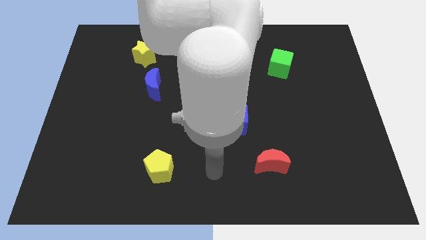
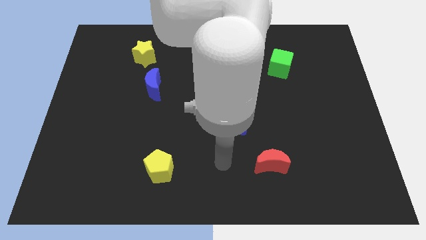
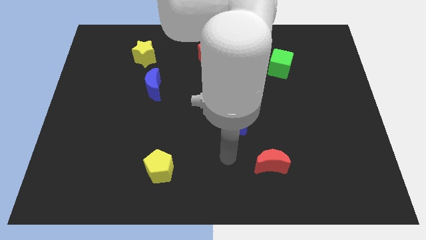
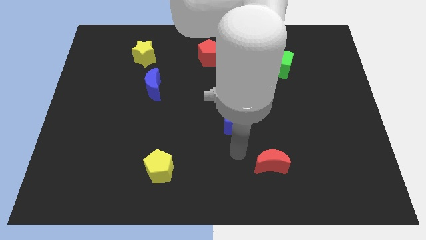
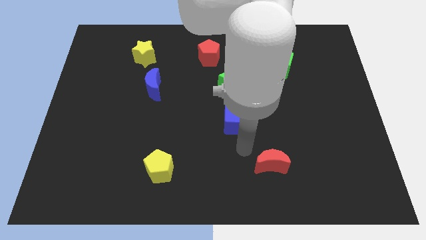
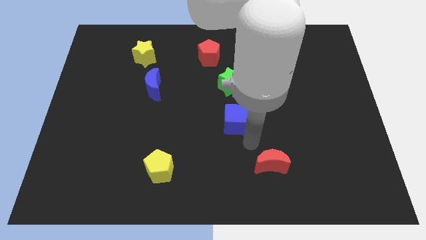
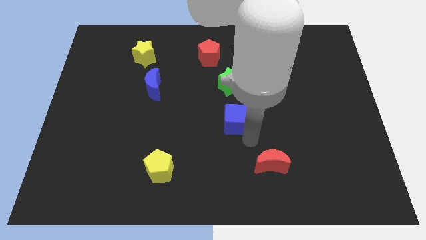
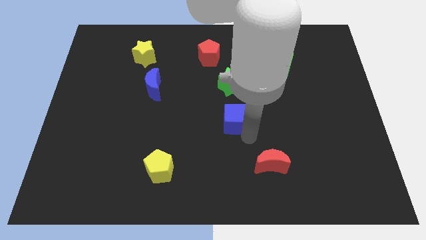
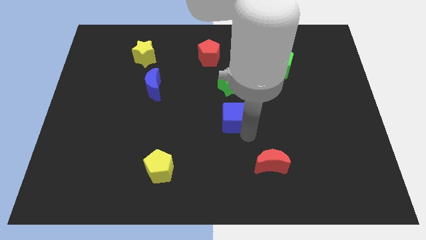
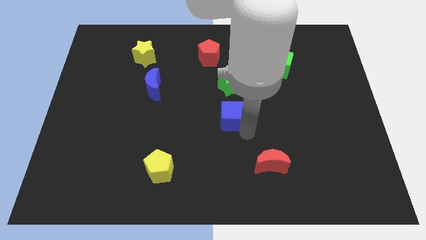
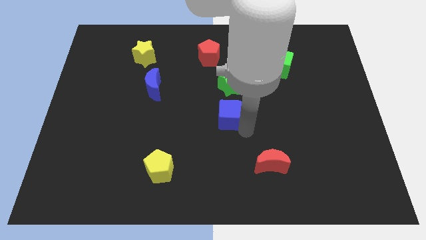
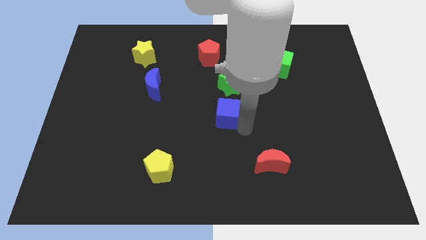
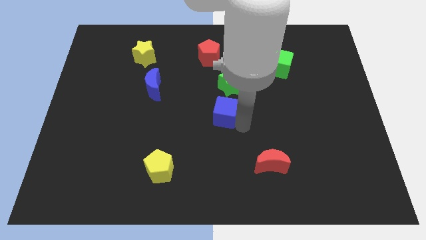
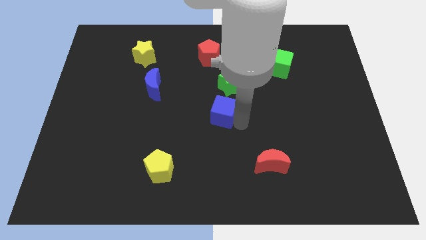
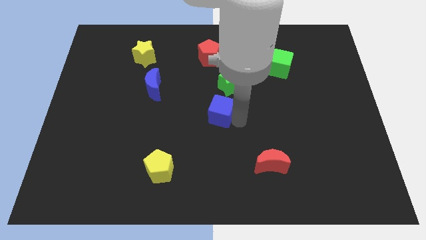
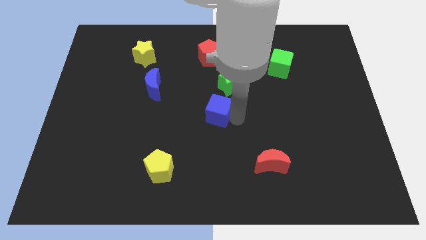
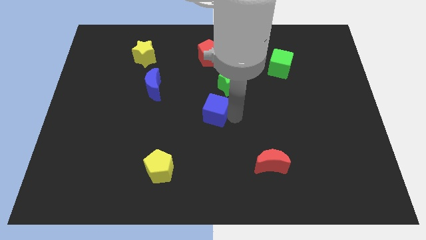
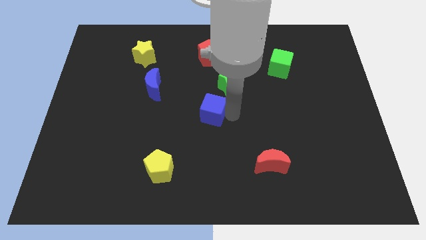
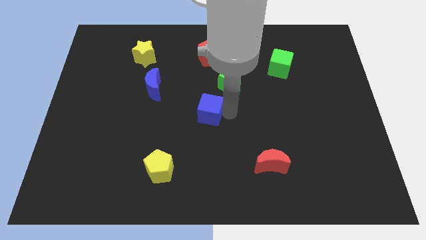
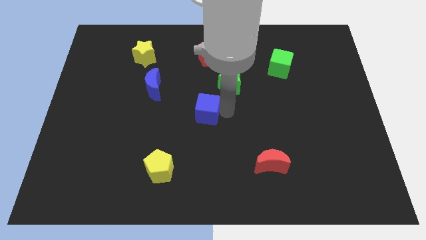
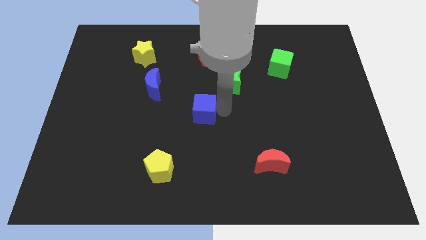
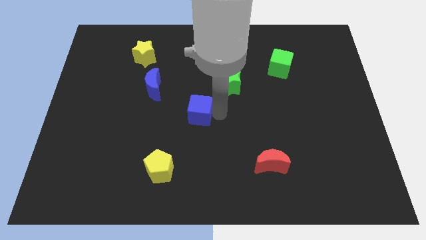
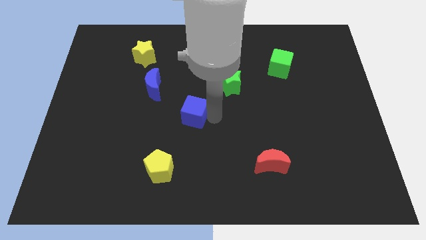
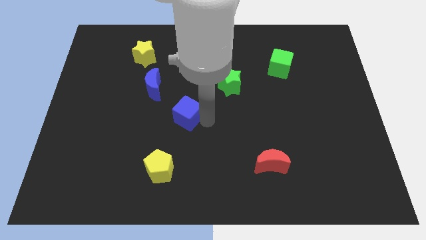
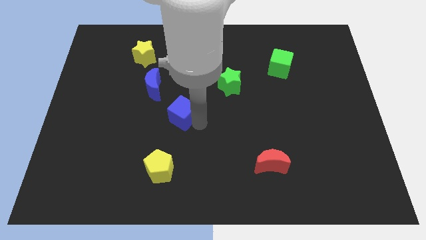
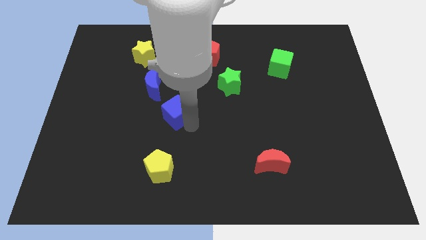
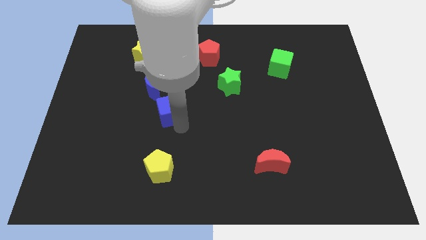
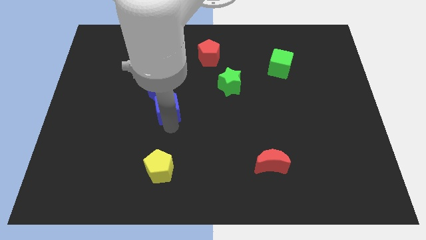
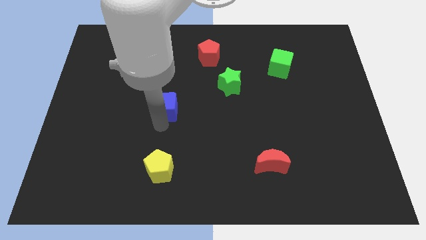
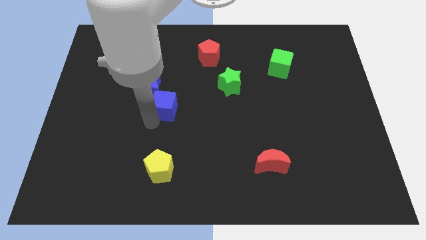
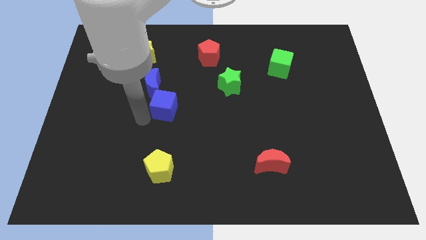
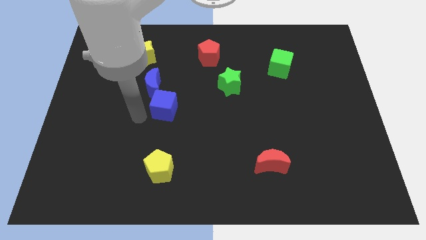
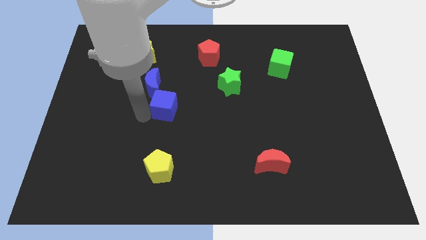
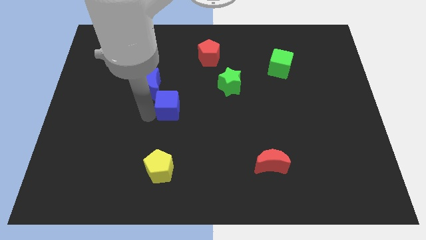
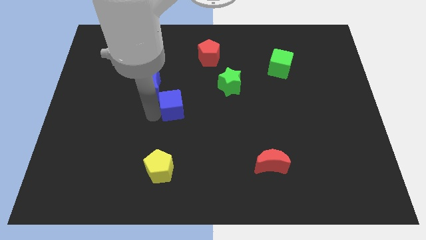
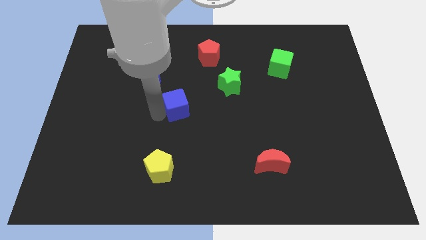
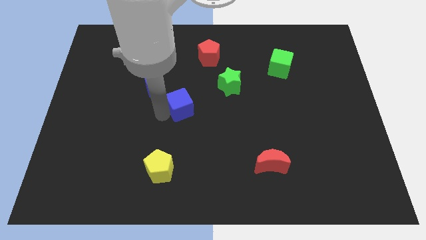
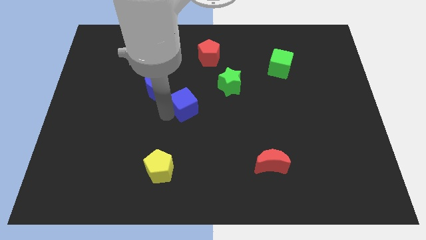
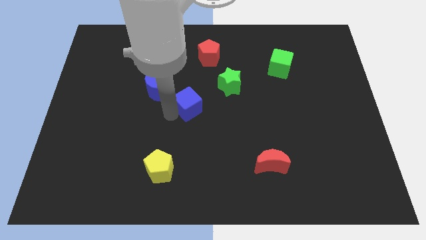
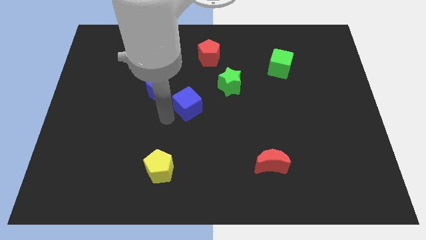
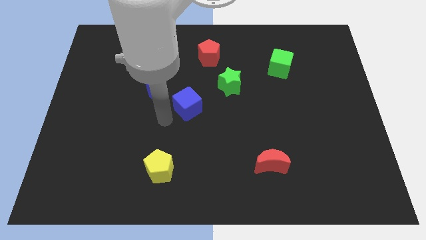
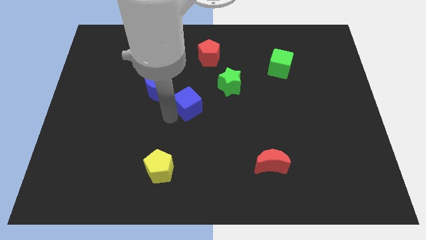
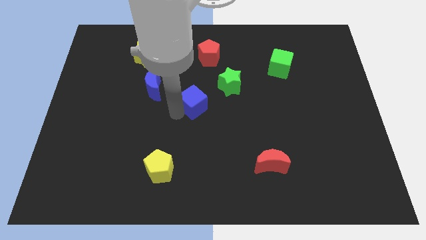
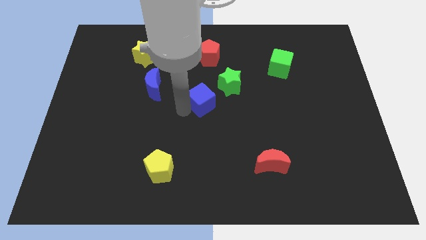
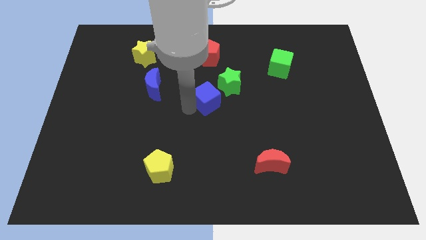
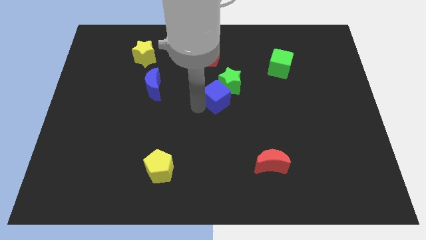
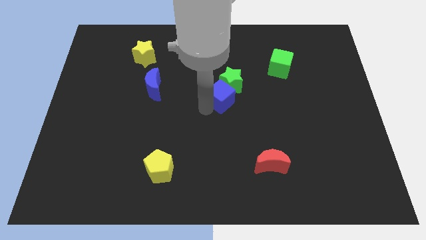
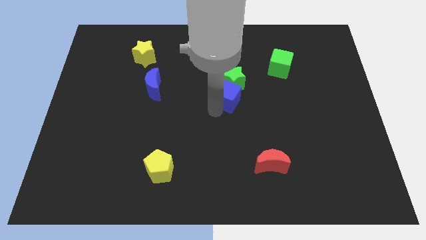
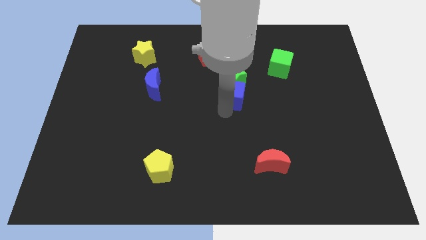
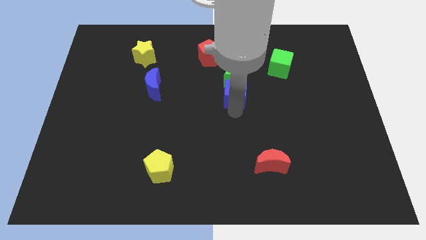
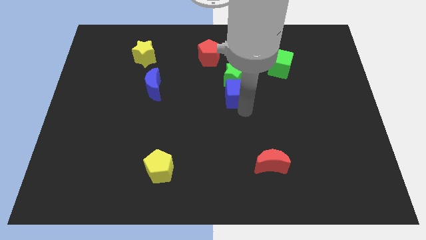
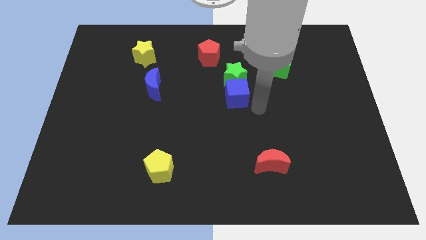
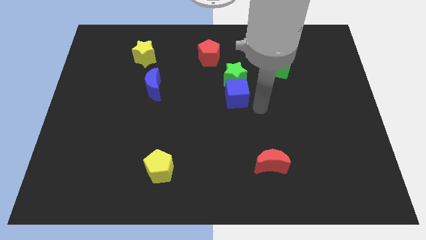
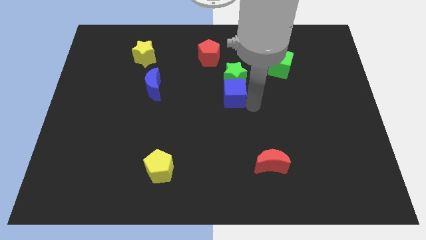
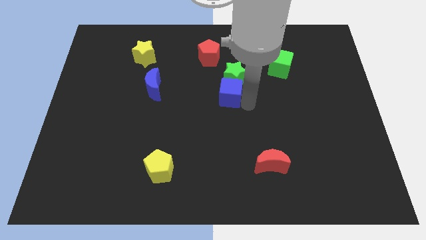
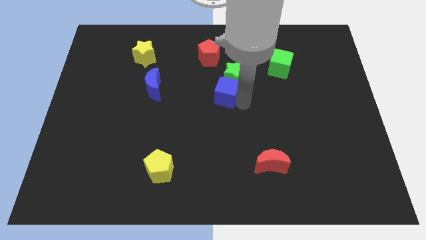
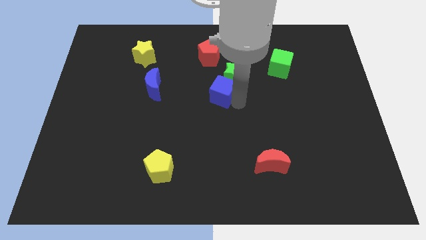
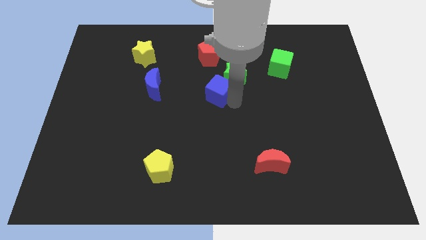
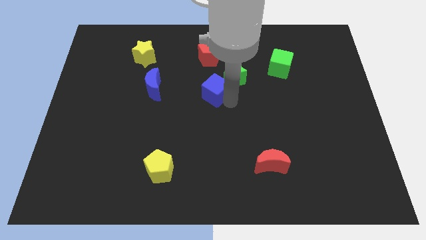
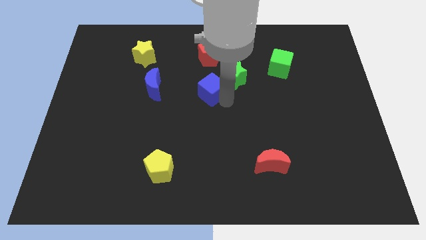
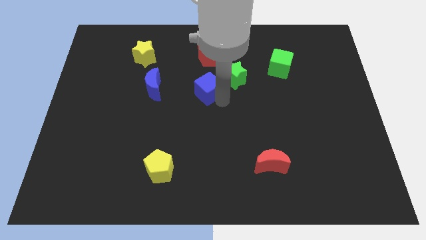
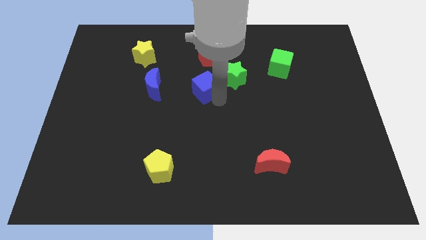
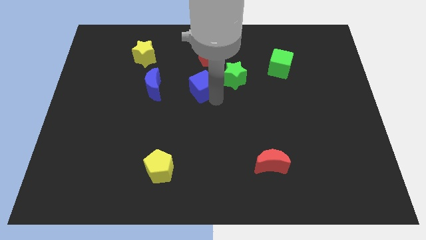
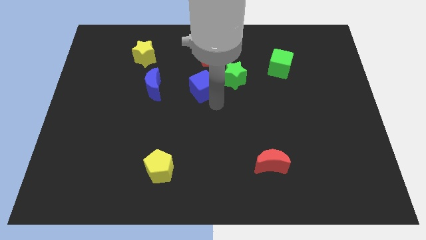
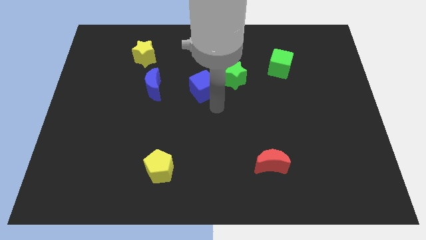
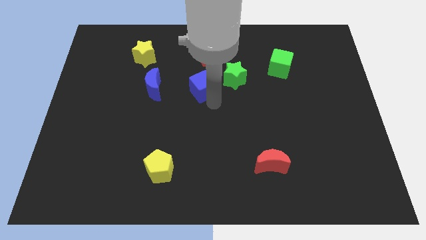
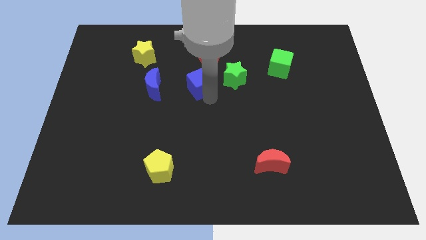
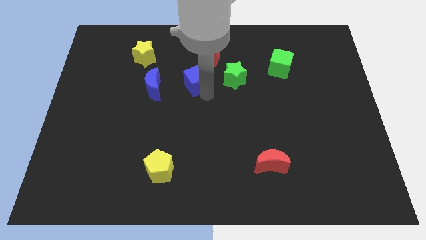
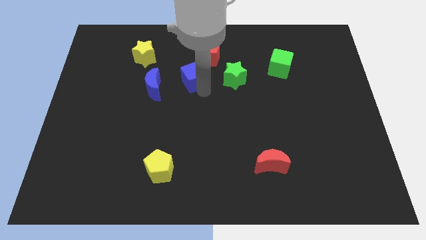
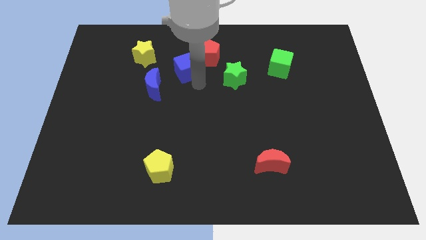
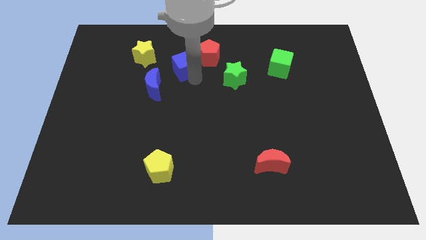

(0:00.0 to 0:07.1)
slide the blue cube left of the red pentagon

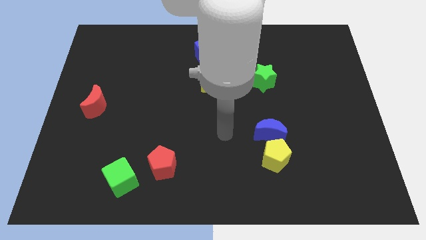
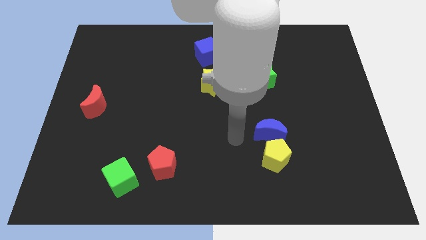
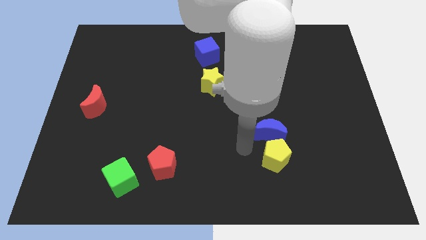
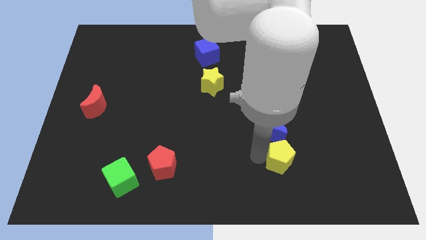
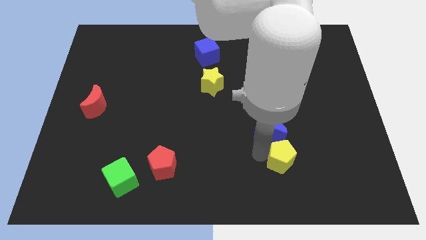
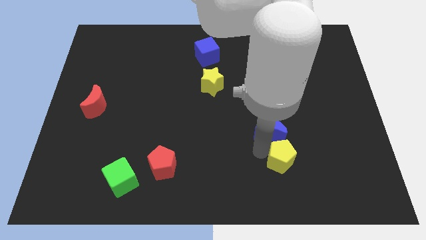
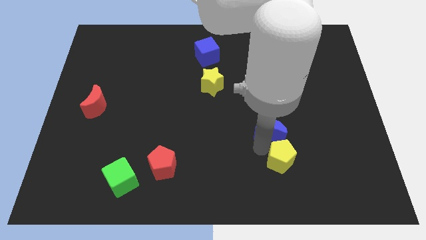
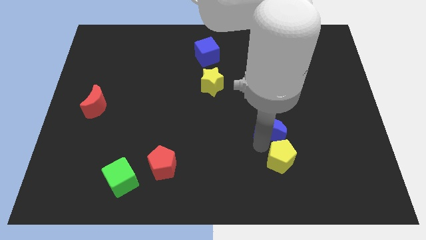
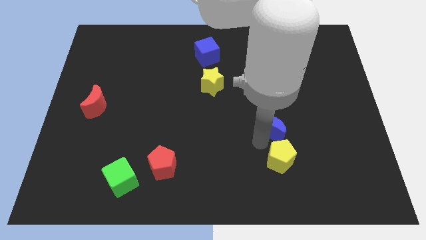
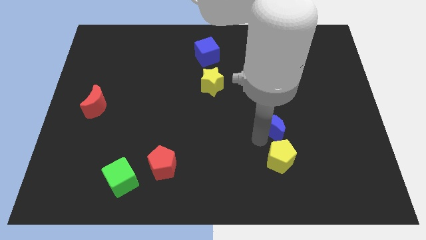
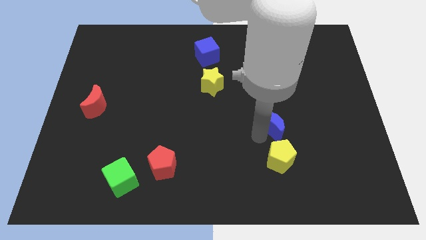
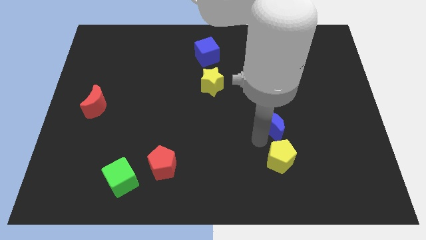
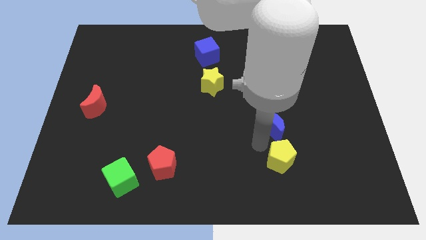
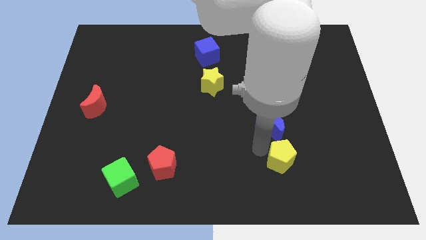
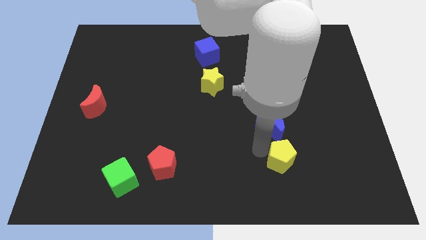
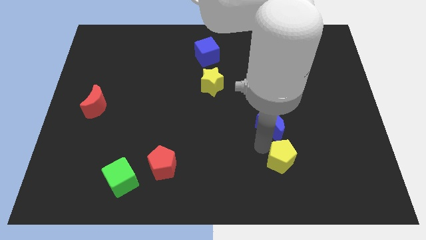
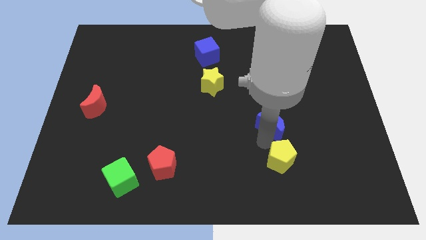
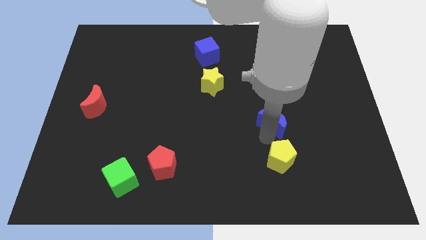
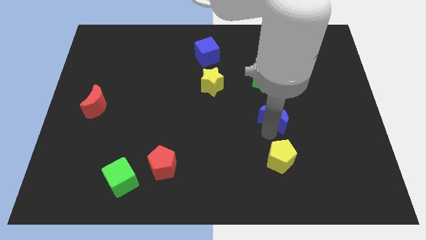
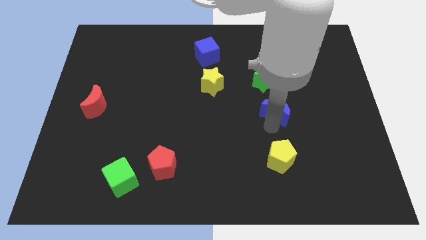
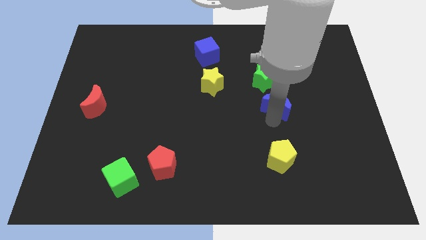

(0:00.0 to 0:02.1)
slide the blue moon to the bottom right side of the green star
